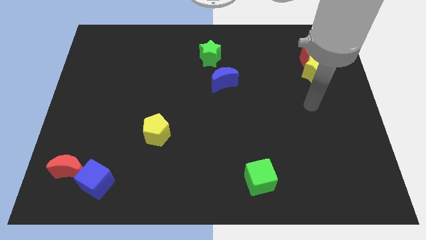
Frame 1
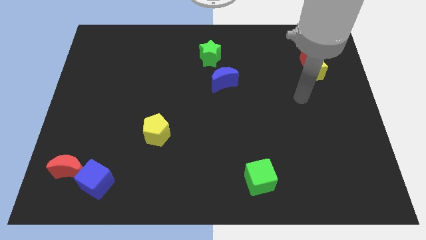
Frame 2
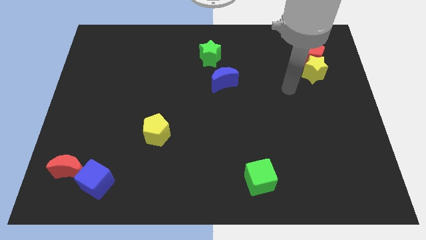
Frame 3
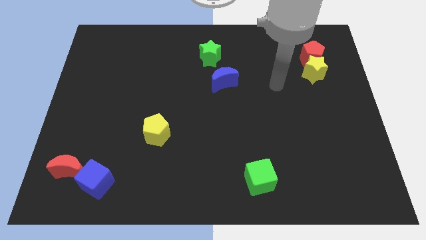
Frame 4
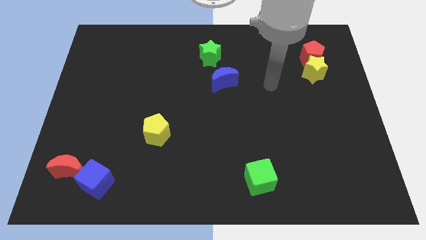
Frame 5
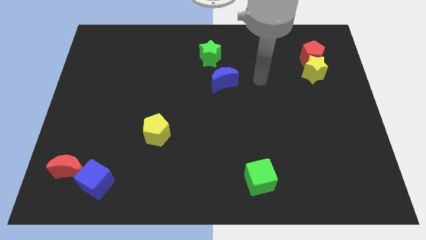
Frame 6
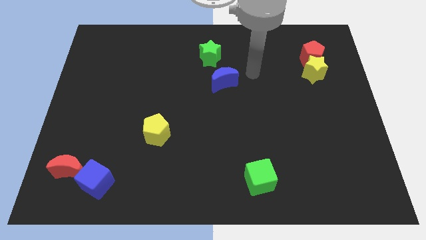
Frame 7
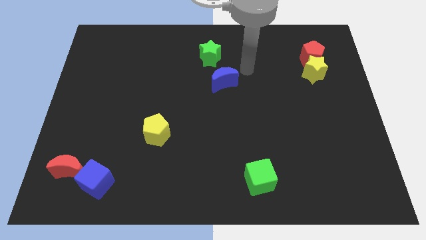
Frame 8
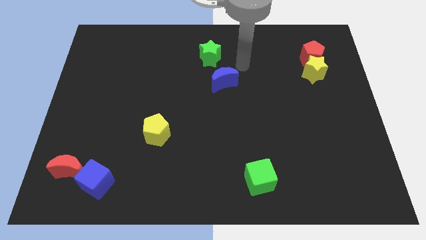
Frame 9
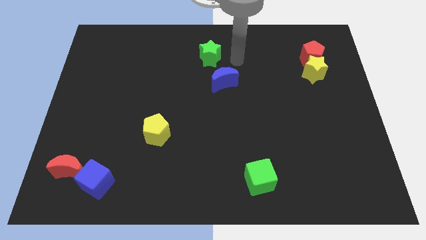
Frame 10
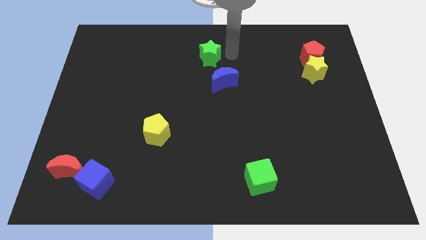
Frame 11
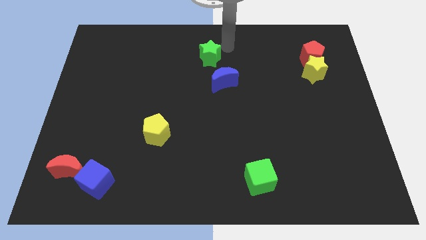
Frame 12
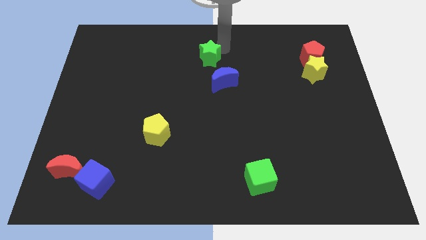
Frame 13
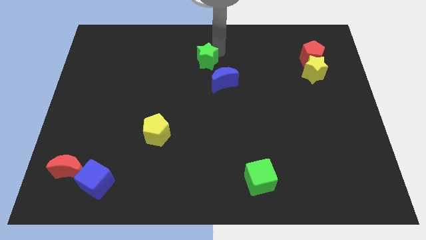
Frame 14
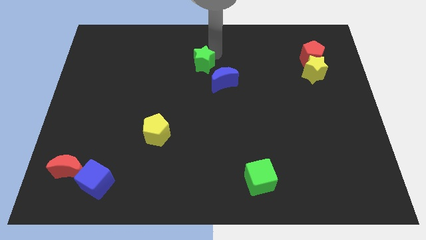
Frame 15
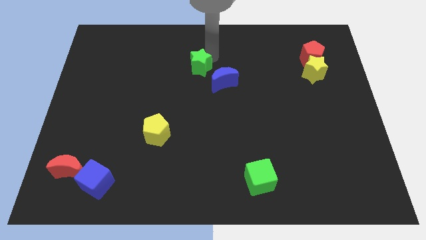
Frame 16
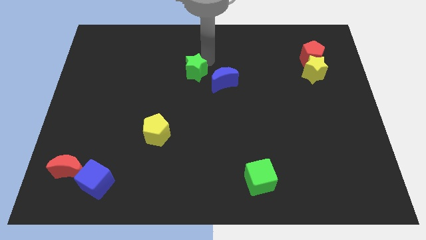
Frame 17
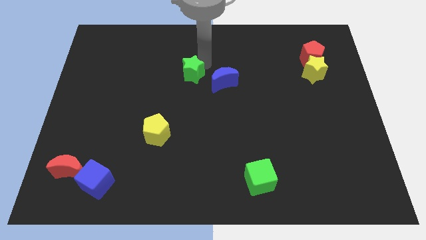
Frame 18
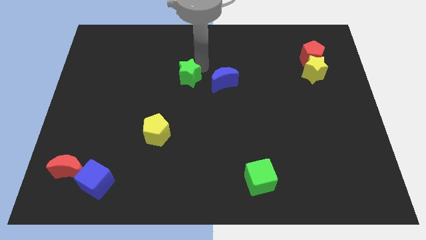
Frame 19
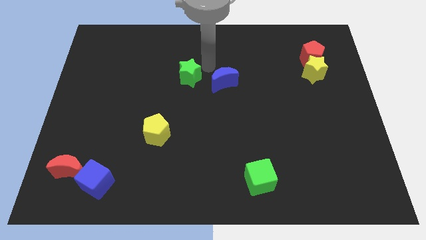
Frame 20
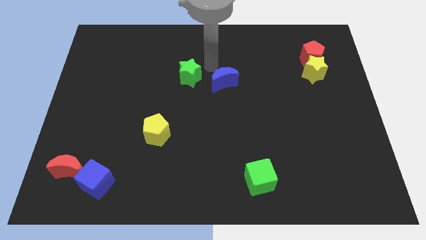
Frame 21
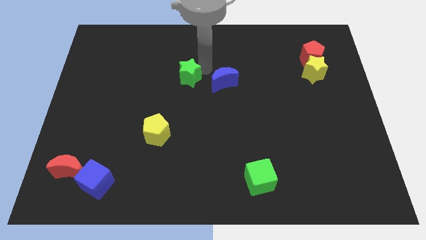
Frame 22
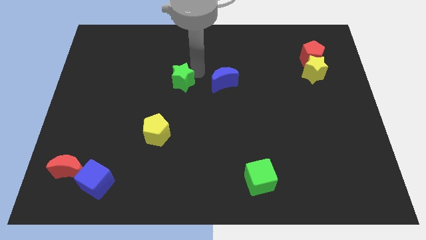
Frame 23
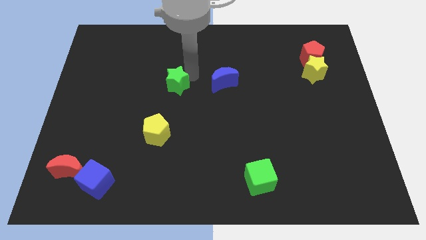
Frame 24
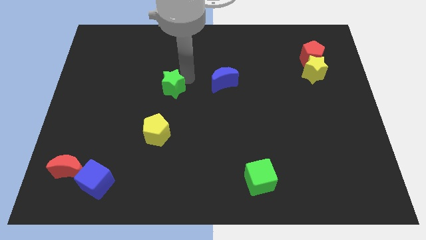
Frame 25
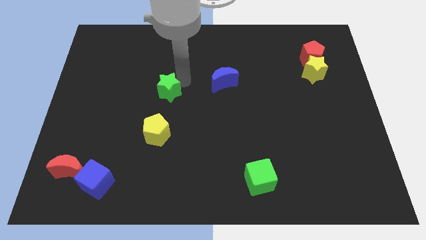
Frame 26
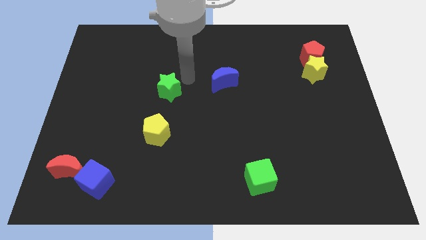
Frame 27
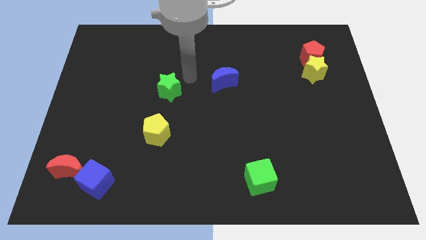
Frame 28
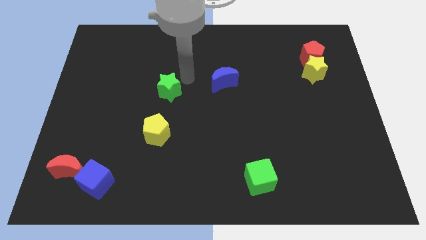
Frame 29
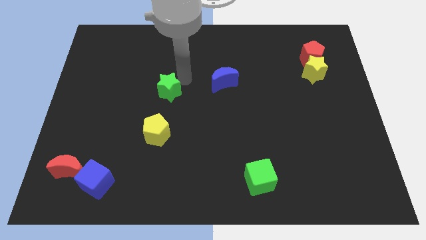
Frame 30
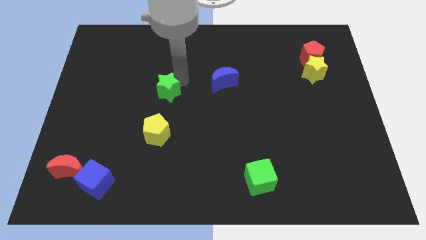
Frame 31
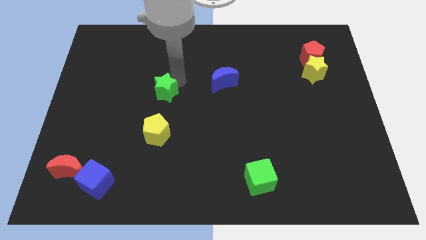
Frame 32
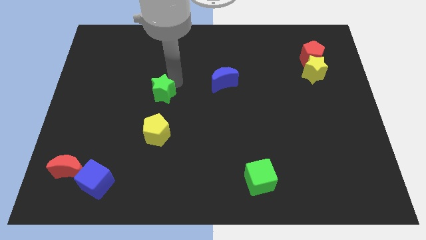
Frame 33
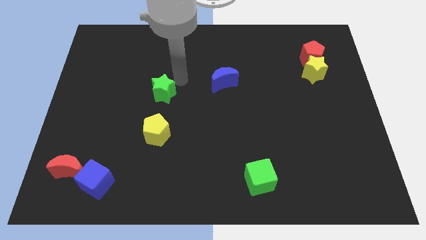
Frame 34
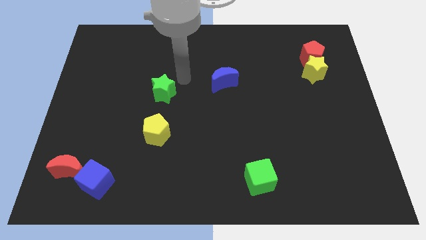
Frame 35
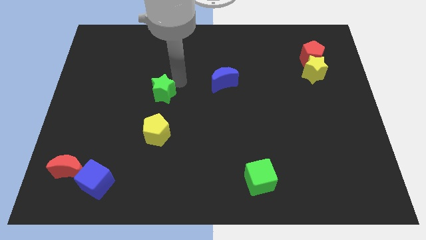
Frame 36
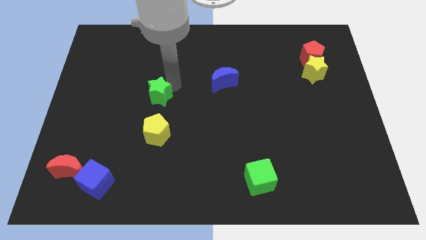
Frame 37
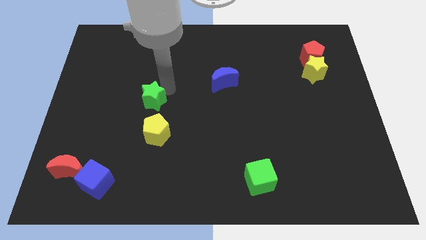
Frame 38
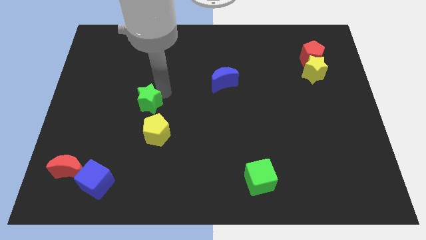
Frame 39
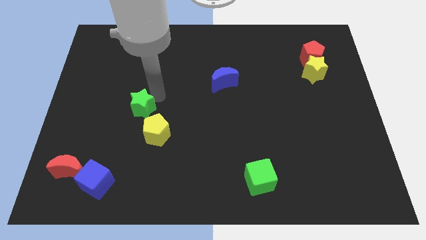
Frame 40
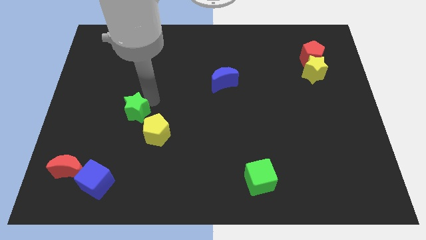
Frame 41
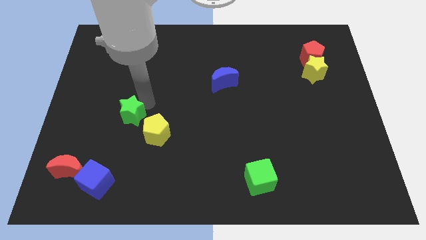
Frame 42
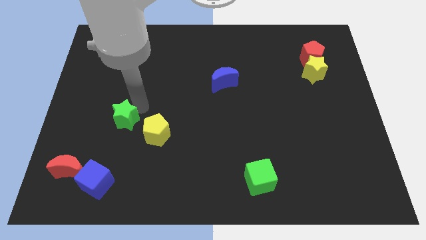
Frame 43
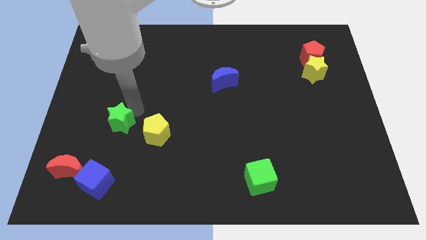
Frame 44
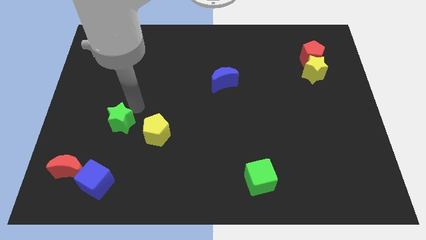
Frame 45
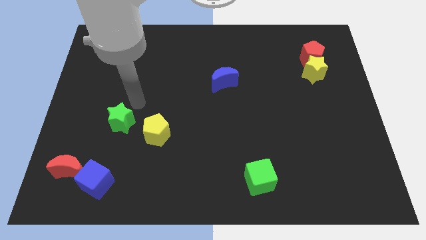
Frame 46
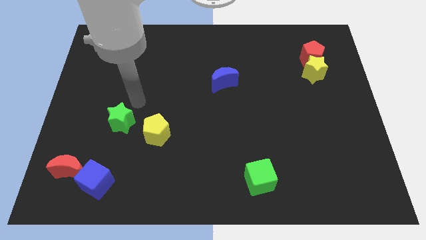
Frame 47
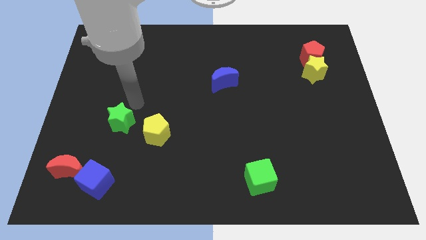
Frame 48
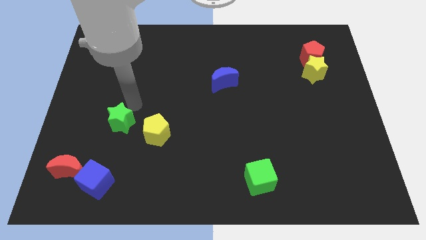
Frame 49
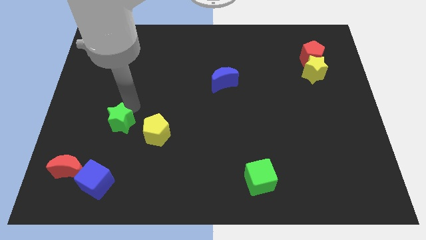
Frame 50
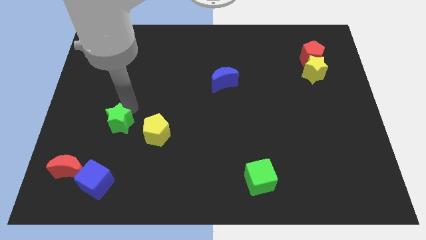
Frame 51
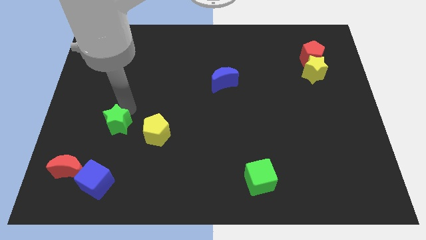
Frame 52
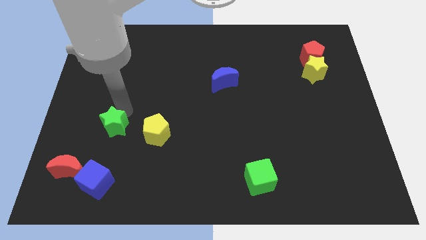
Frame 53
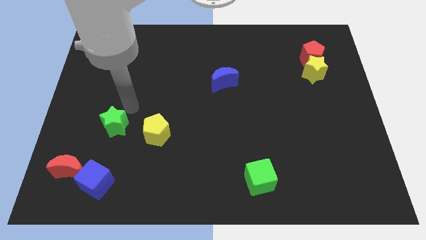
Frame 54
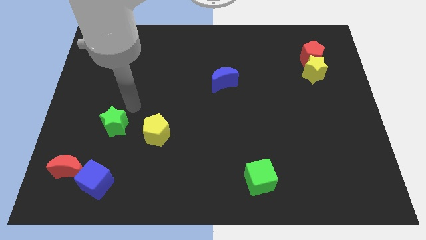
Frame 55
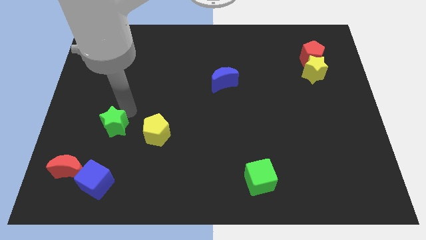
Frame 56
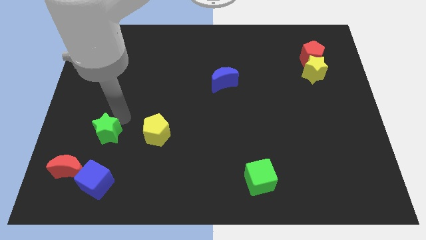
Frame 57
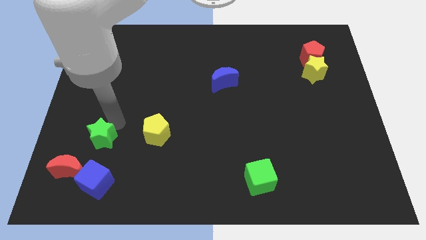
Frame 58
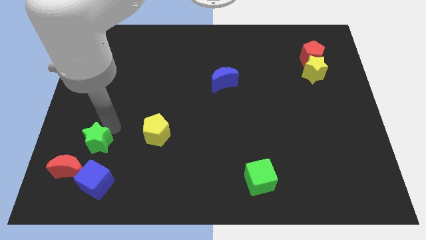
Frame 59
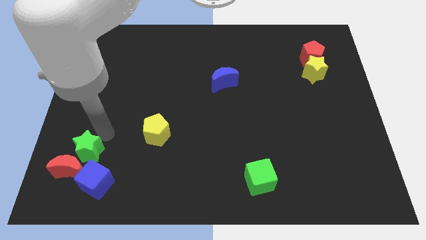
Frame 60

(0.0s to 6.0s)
slide the green star close to the red moon

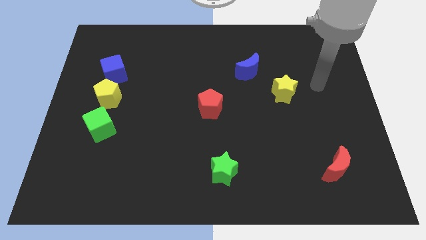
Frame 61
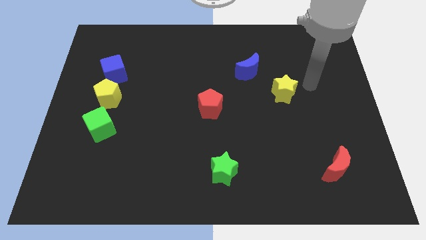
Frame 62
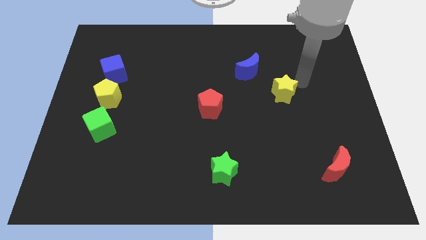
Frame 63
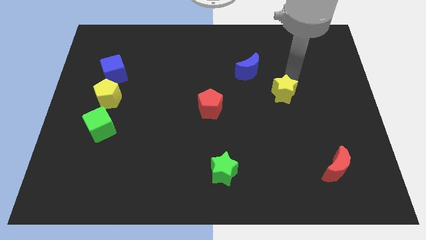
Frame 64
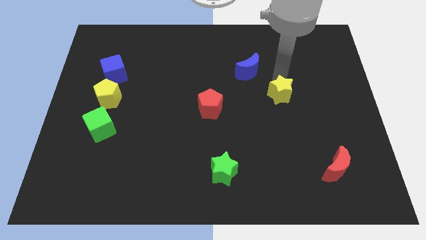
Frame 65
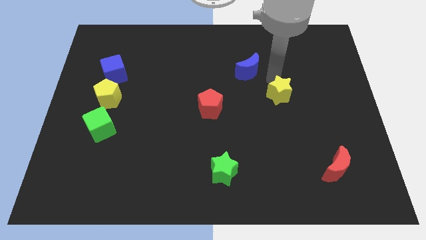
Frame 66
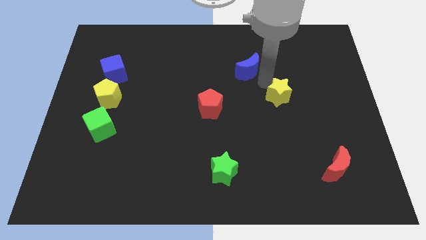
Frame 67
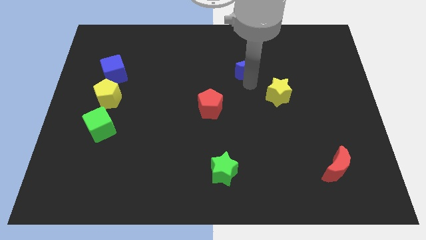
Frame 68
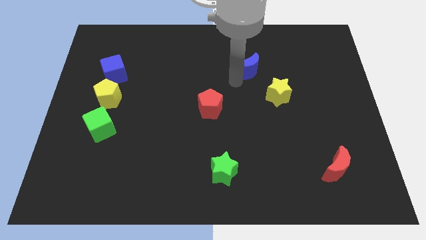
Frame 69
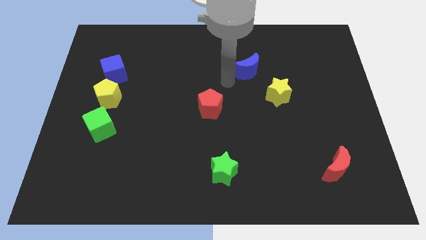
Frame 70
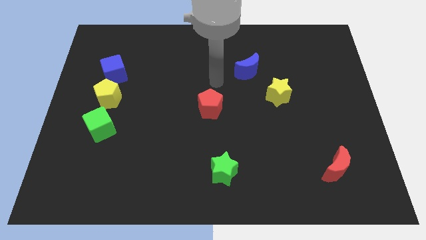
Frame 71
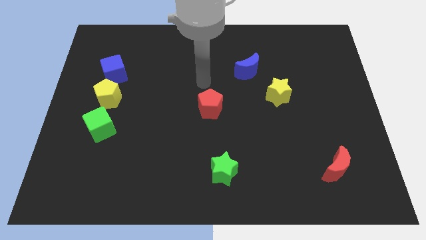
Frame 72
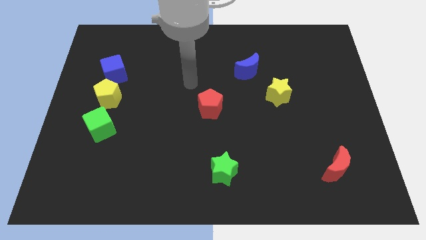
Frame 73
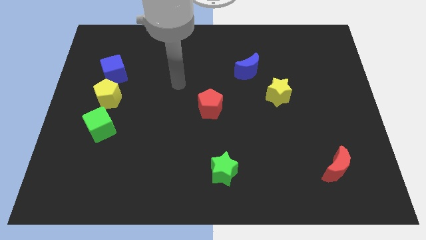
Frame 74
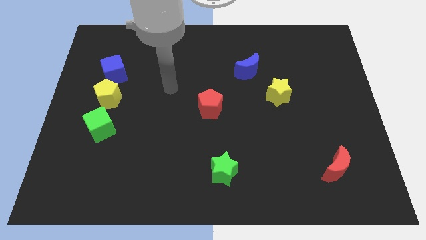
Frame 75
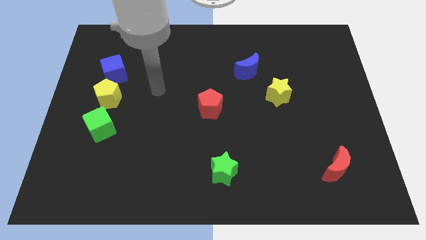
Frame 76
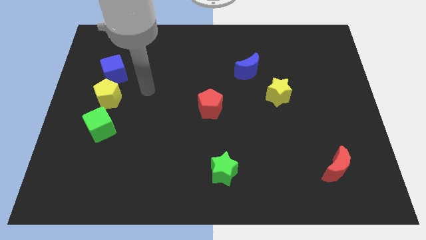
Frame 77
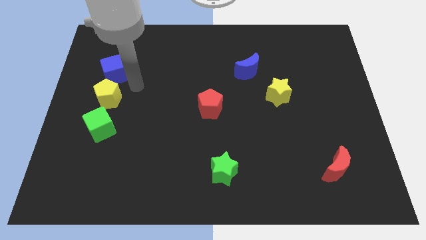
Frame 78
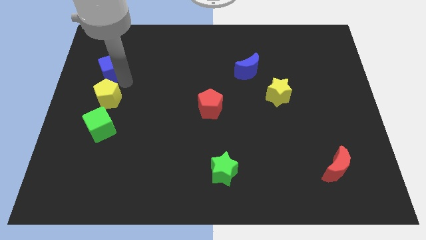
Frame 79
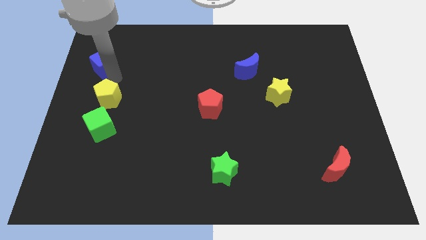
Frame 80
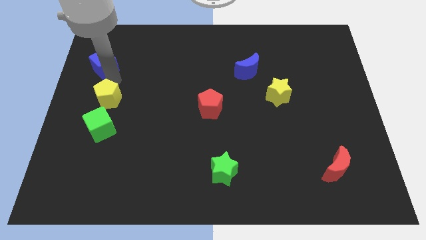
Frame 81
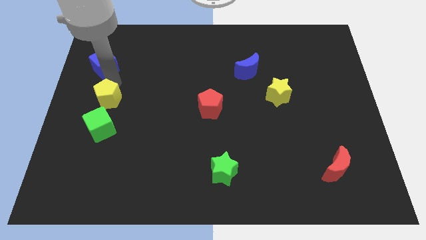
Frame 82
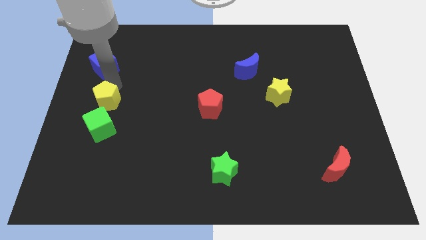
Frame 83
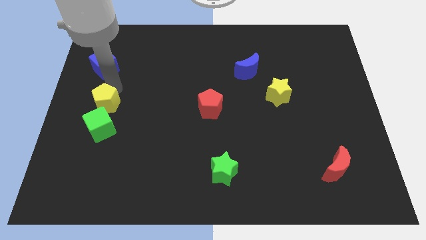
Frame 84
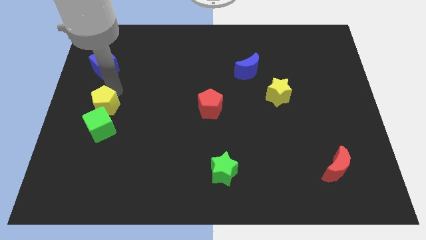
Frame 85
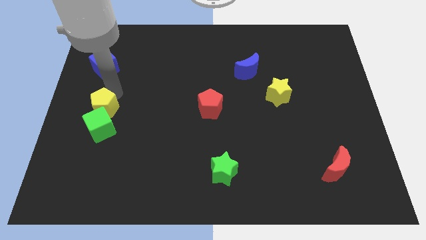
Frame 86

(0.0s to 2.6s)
put the yellow pentagon close to the green cube
